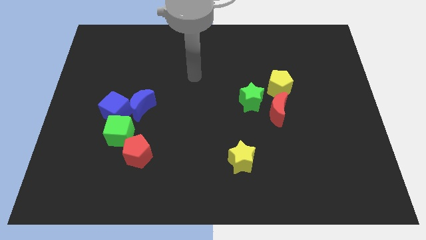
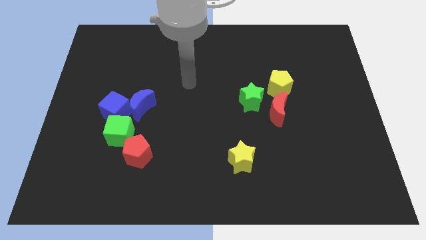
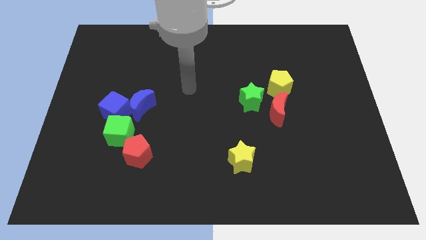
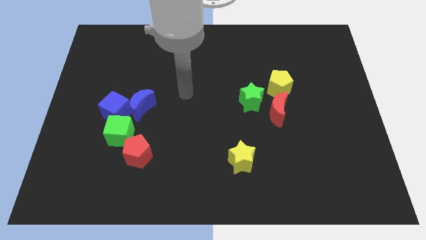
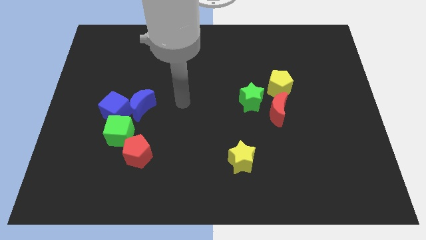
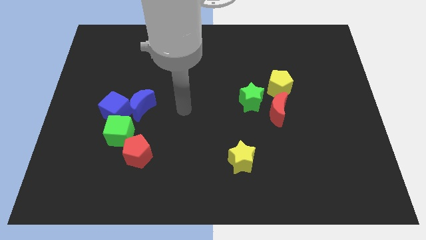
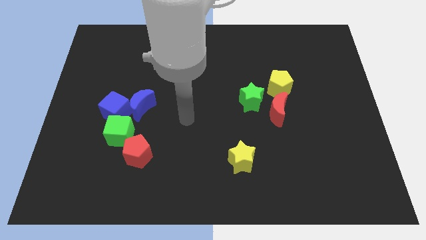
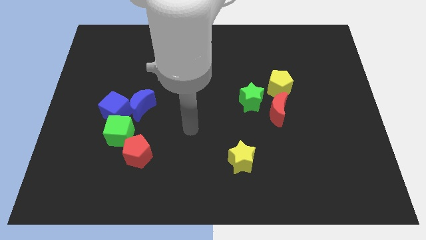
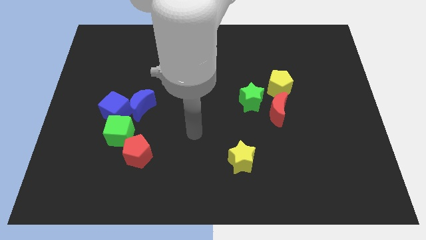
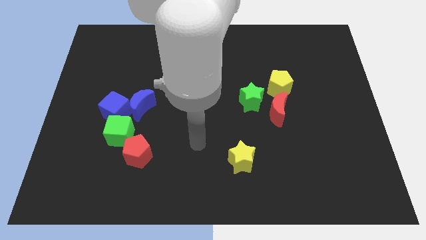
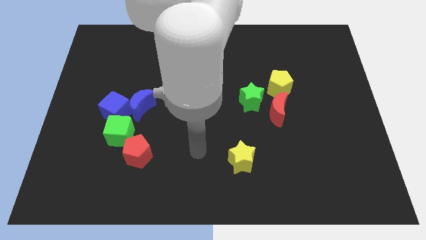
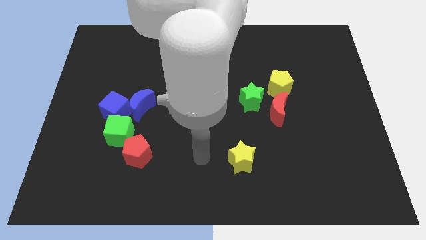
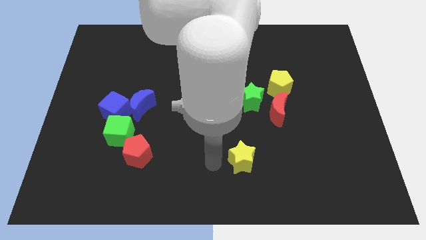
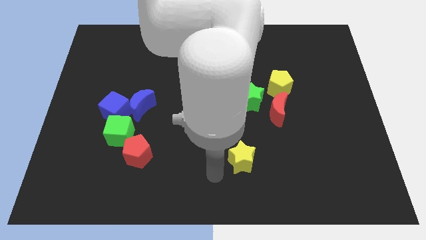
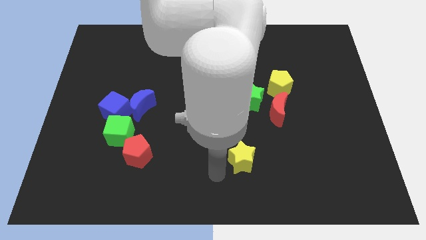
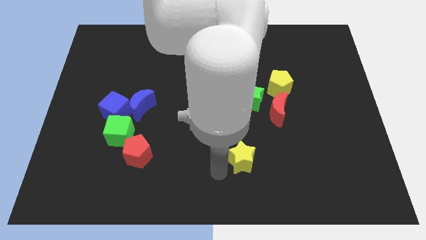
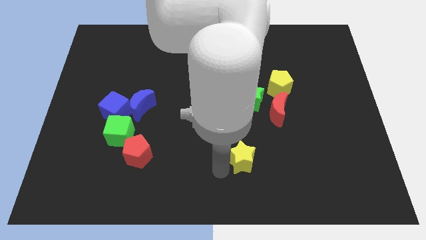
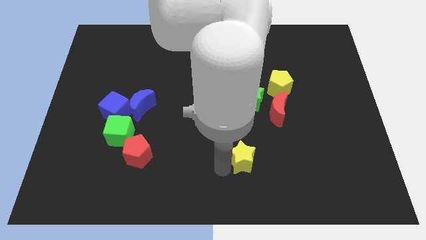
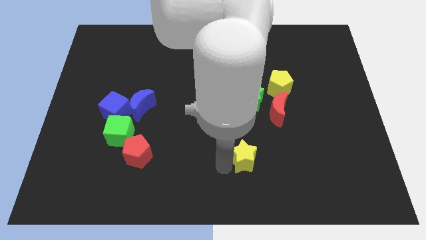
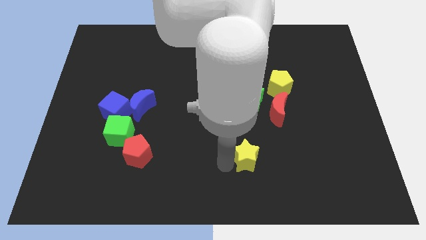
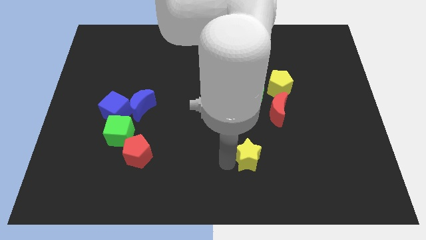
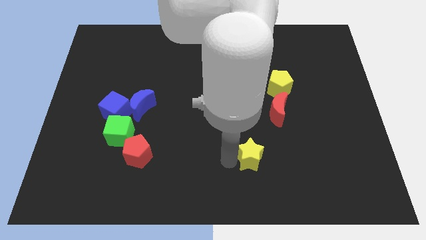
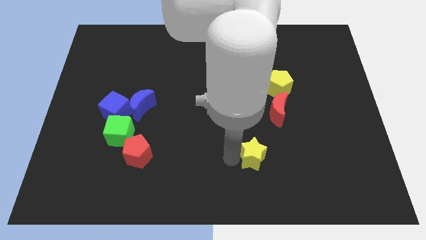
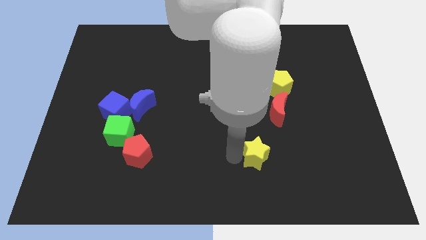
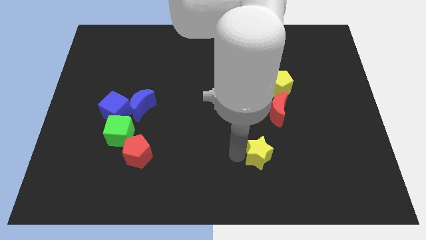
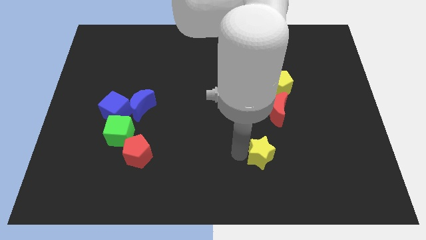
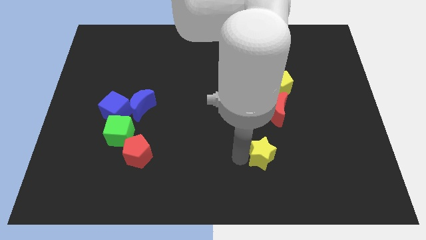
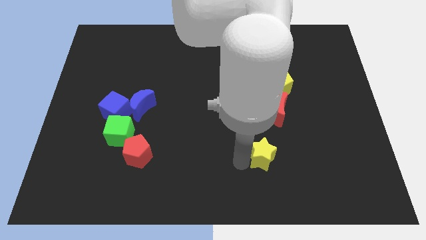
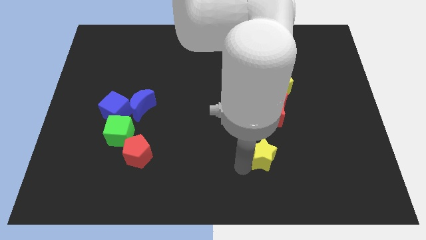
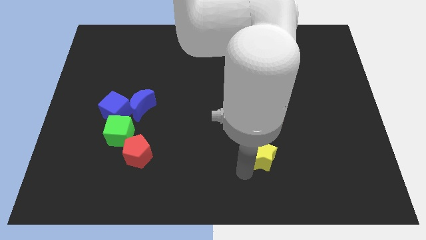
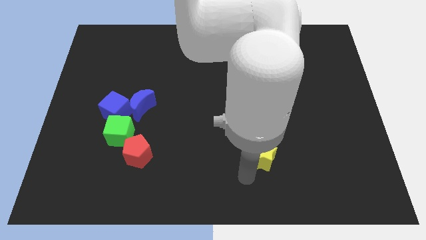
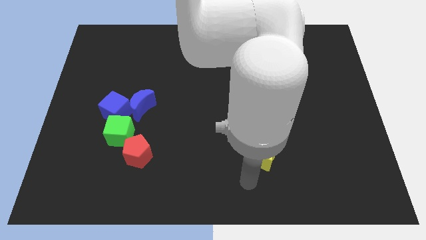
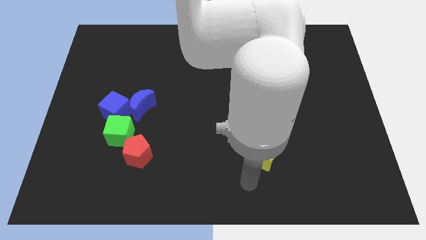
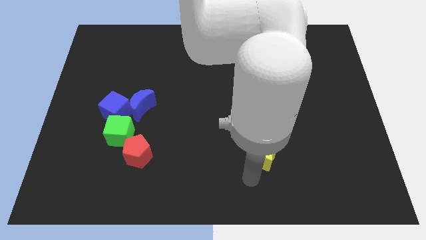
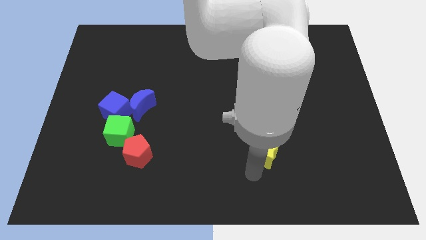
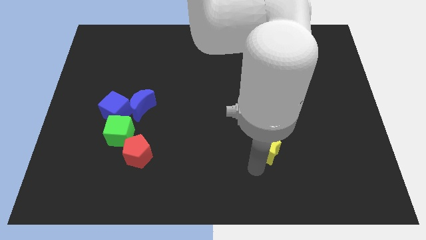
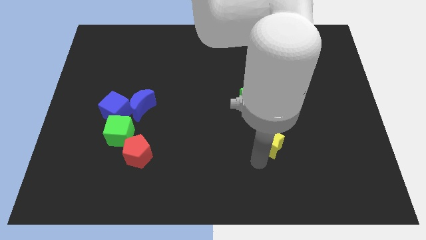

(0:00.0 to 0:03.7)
slightly slide the yellow star up and to the right diagonally

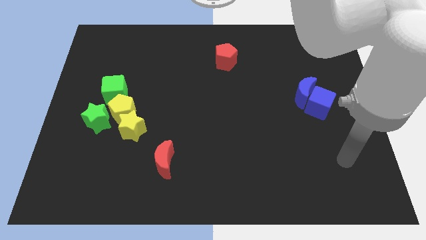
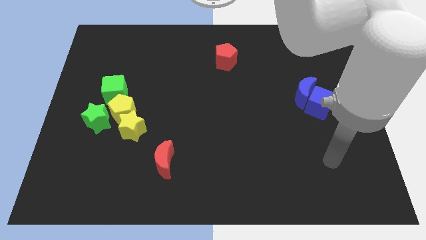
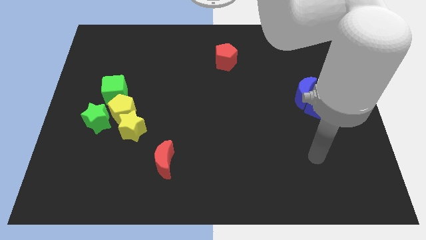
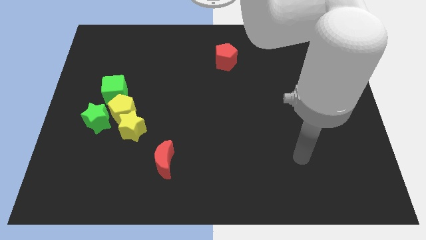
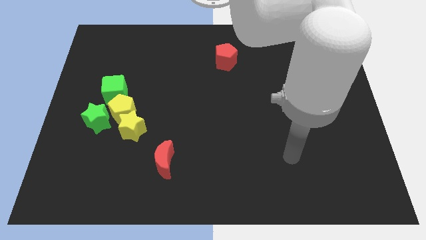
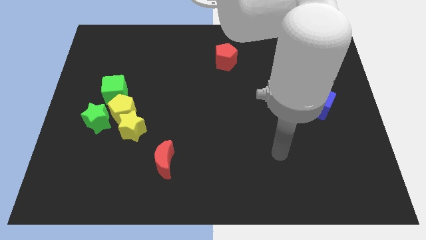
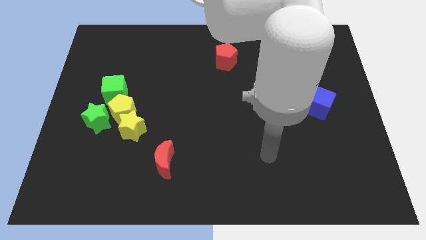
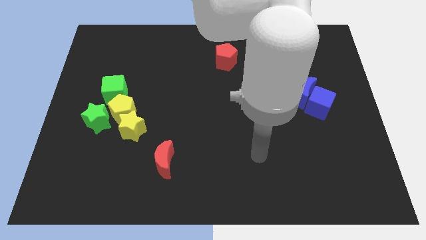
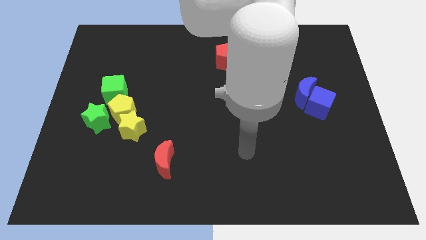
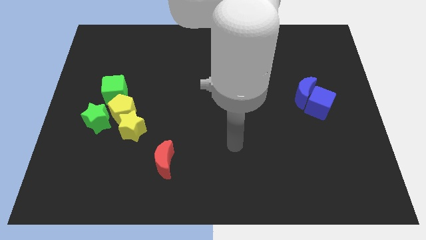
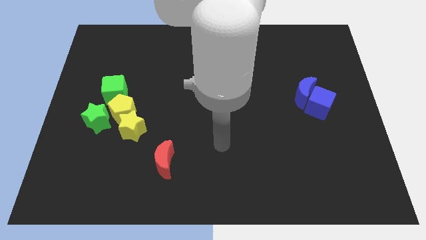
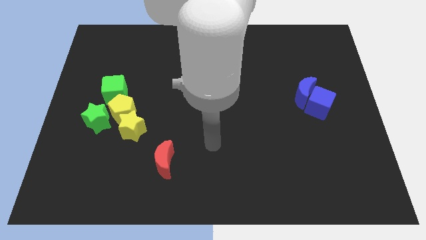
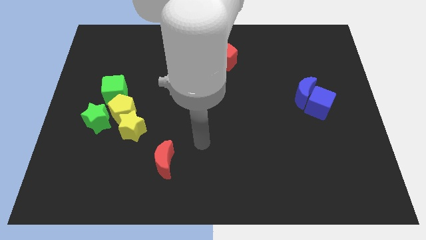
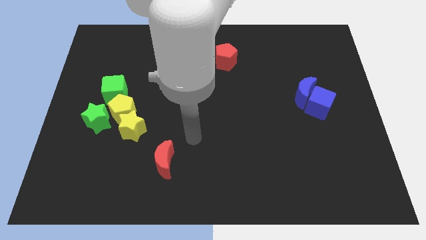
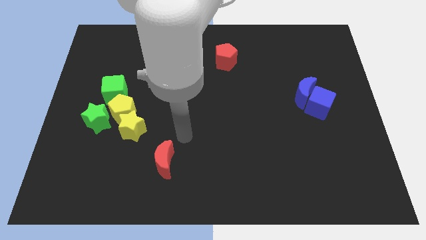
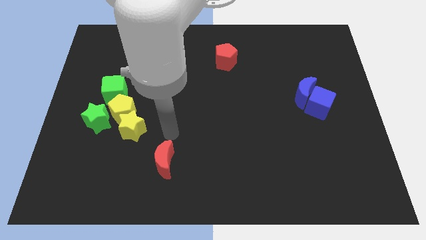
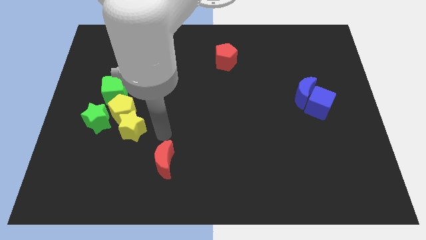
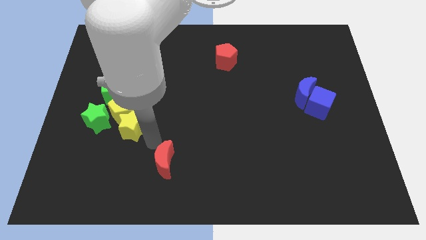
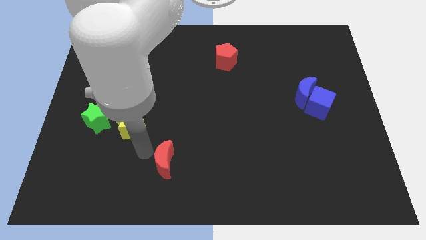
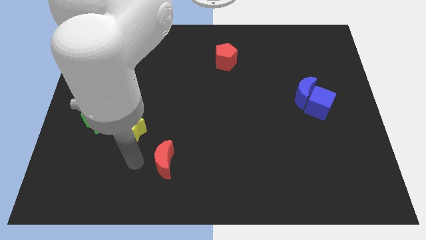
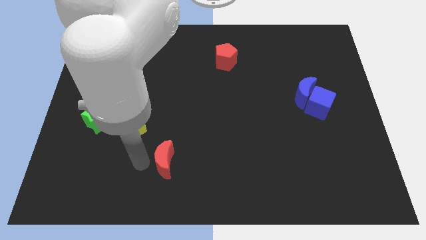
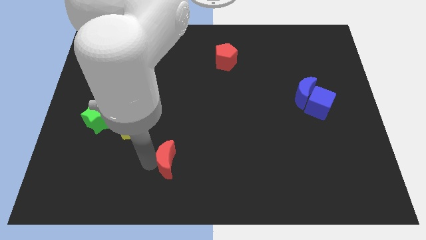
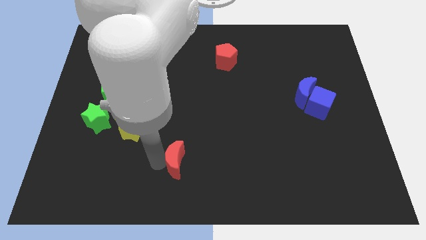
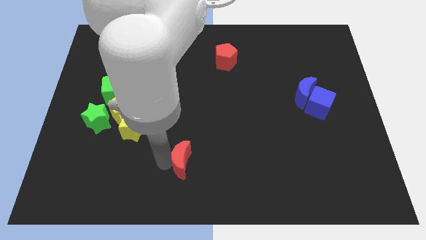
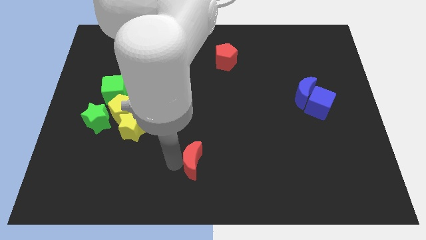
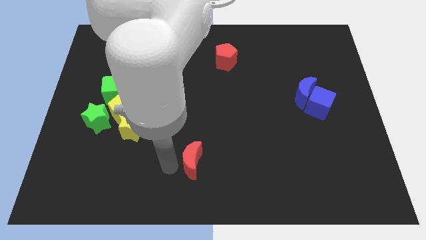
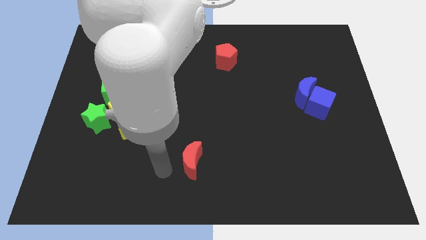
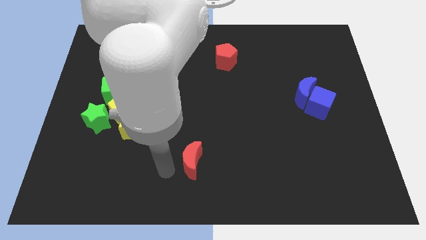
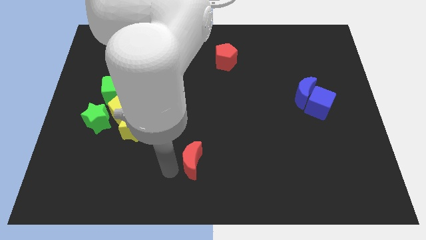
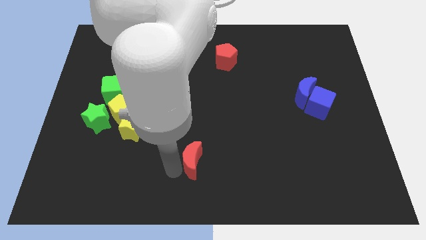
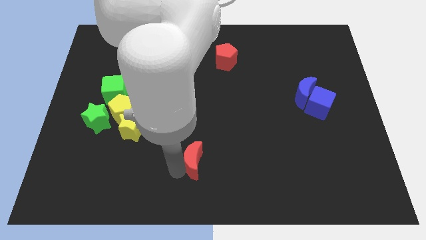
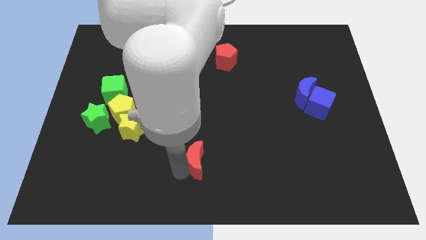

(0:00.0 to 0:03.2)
push the red moon a little bit right

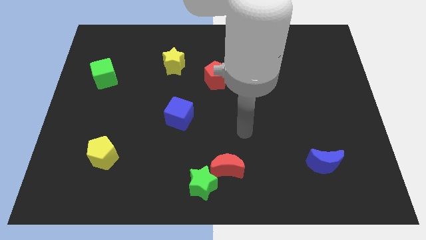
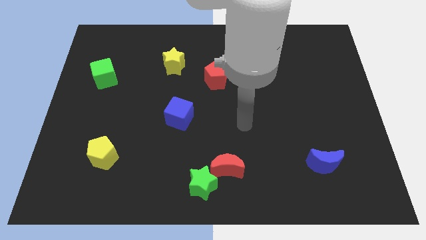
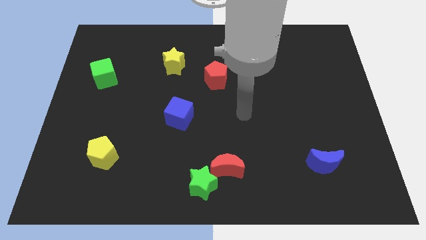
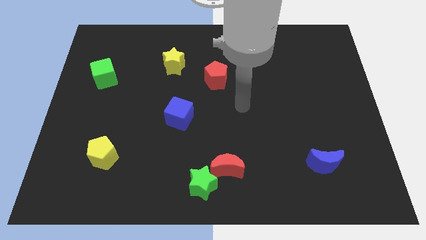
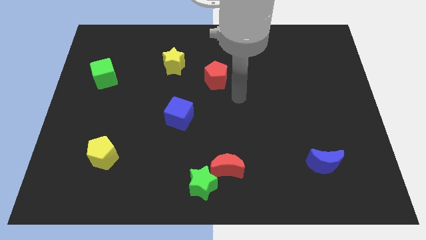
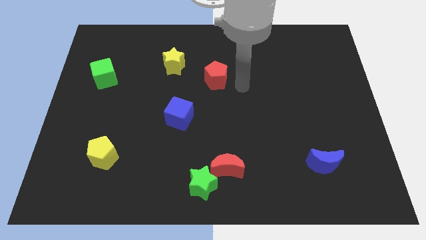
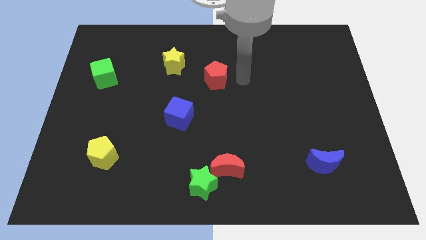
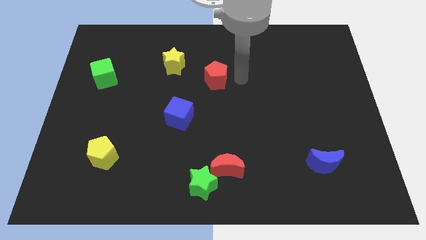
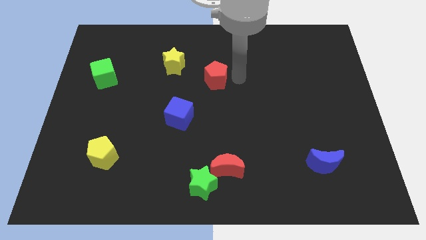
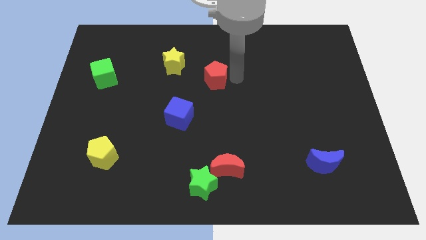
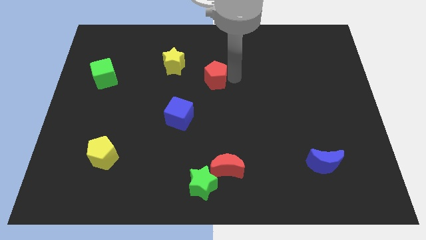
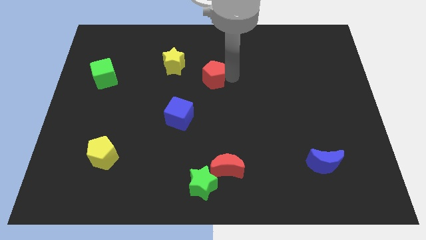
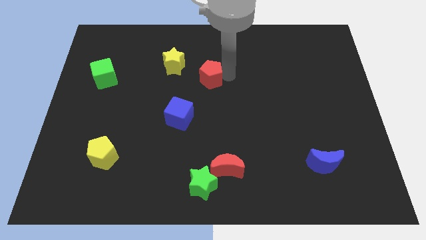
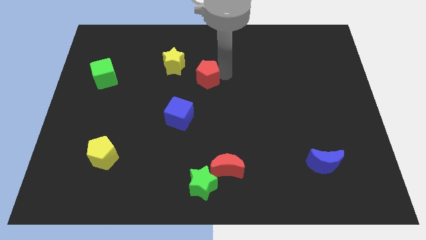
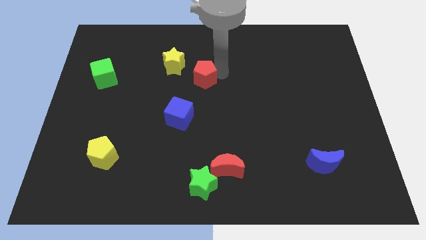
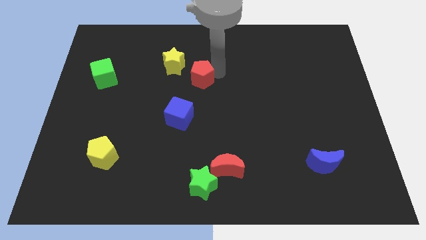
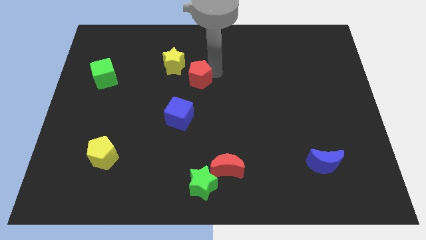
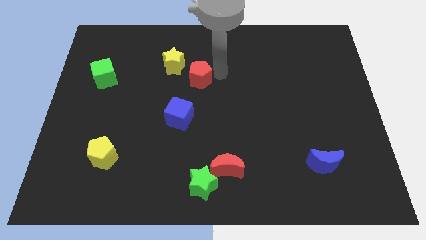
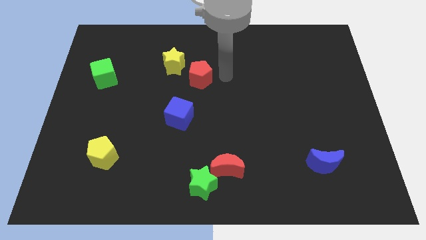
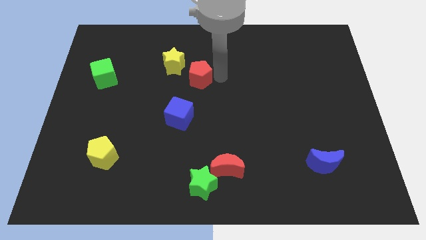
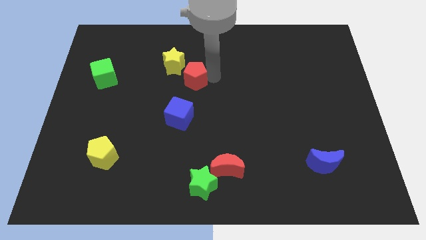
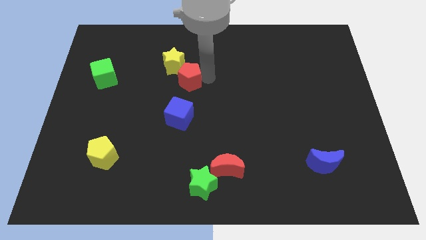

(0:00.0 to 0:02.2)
slightly push the red pentagon left
